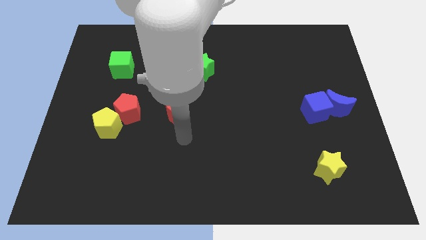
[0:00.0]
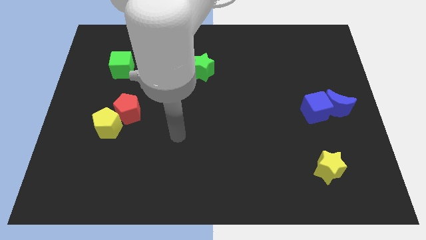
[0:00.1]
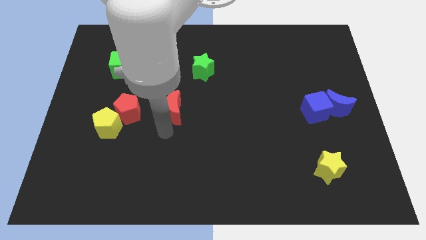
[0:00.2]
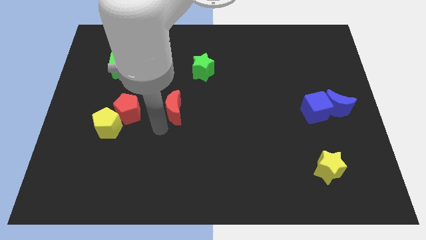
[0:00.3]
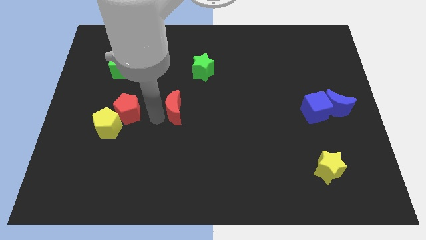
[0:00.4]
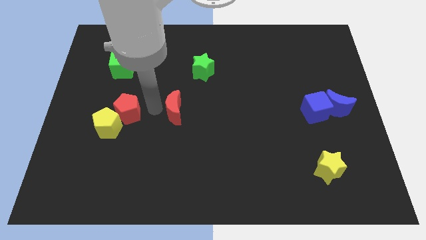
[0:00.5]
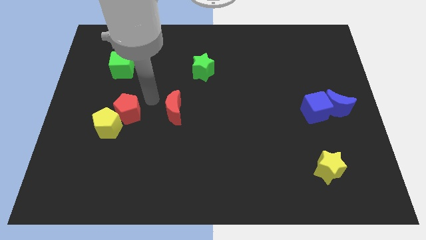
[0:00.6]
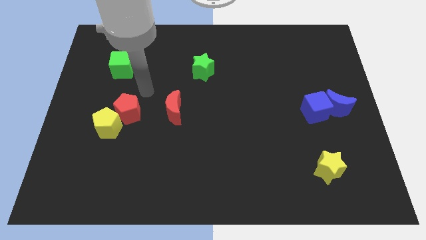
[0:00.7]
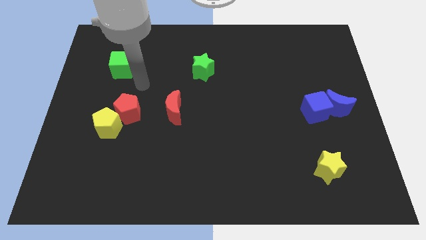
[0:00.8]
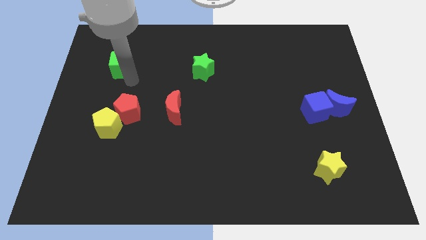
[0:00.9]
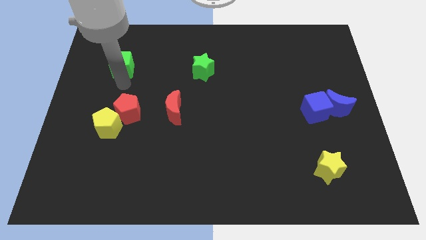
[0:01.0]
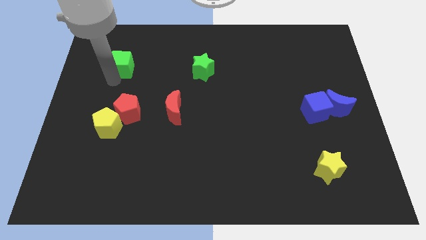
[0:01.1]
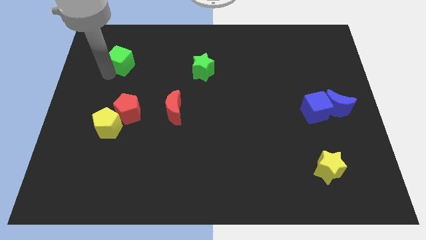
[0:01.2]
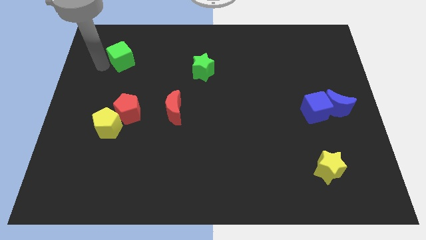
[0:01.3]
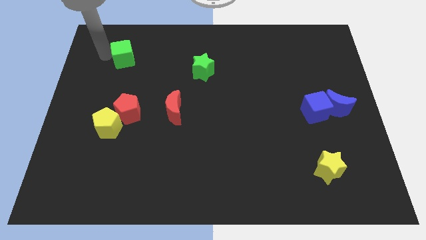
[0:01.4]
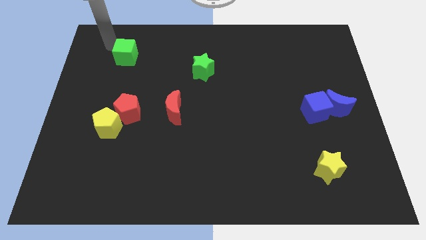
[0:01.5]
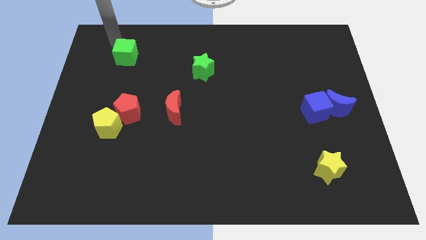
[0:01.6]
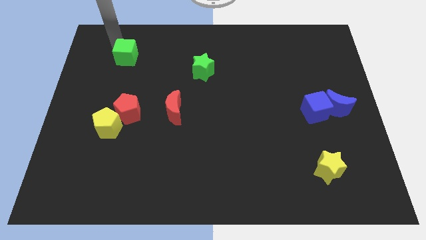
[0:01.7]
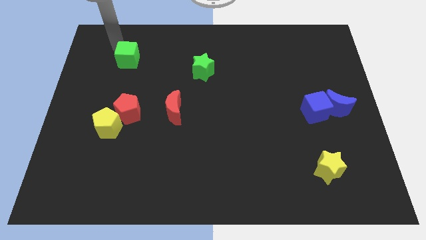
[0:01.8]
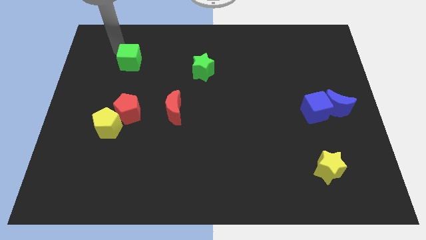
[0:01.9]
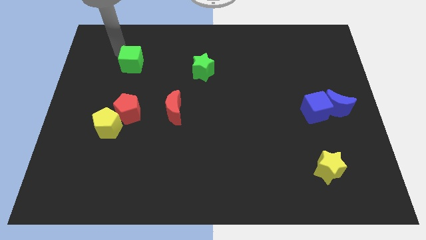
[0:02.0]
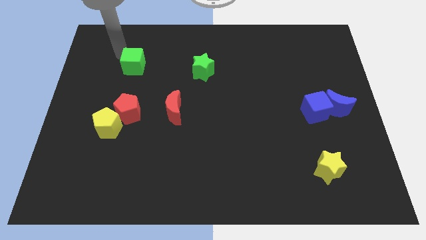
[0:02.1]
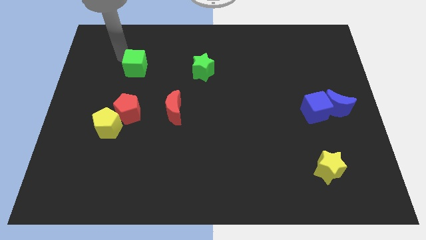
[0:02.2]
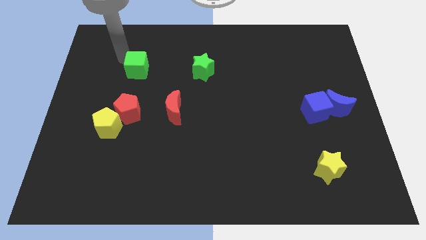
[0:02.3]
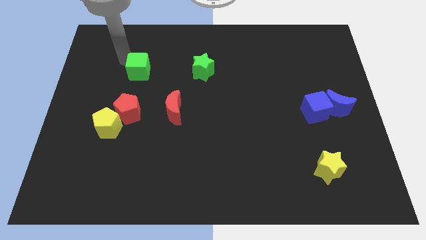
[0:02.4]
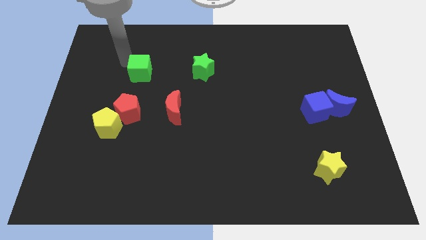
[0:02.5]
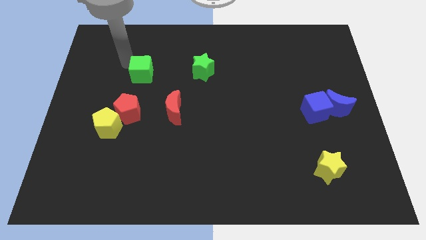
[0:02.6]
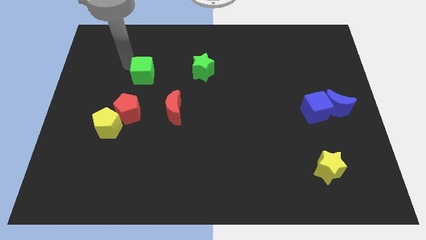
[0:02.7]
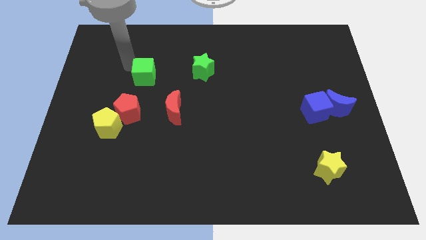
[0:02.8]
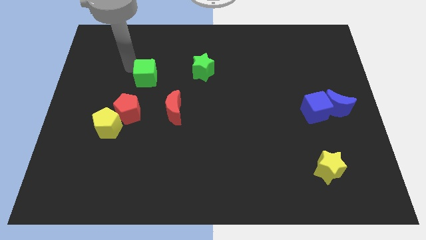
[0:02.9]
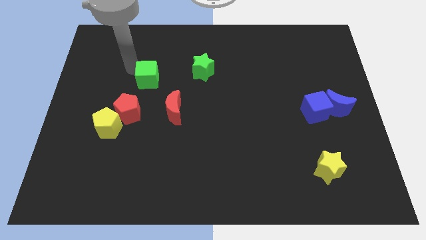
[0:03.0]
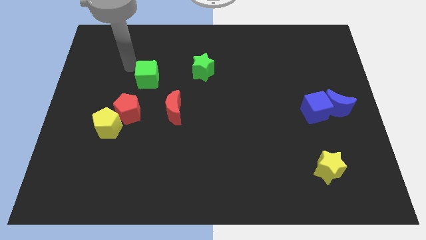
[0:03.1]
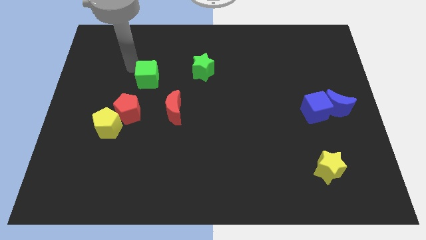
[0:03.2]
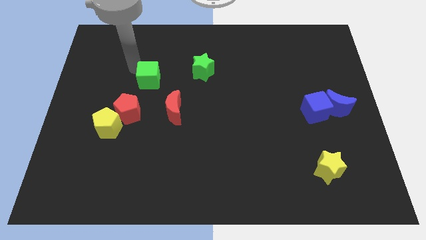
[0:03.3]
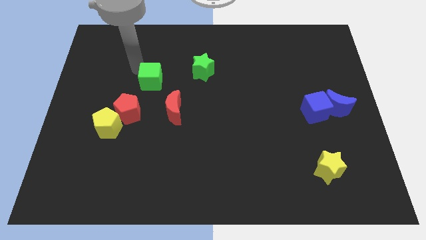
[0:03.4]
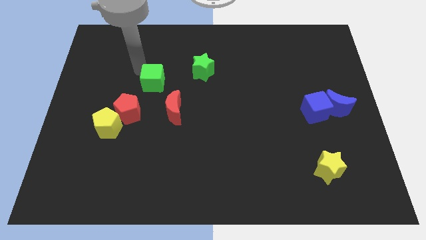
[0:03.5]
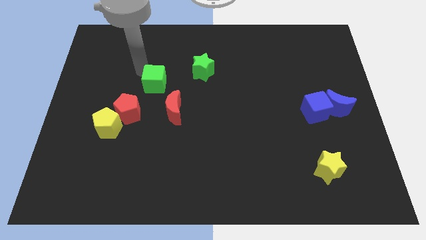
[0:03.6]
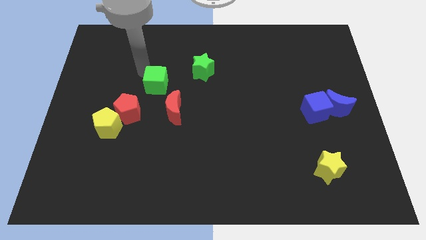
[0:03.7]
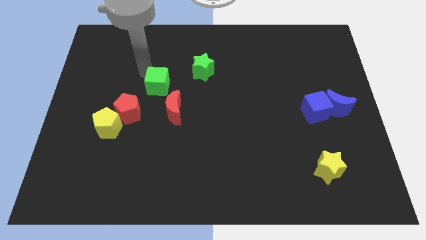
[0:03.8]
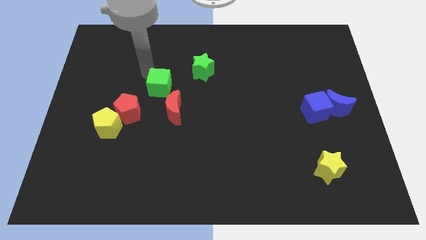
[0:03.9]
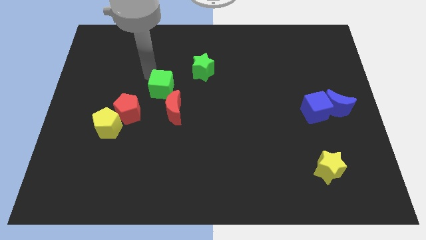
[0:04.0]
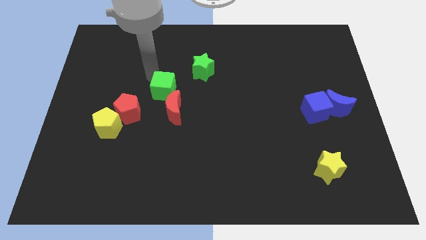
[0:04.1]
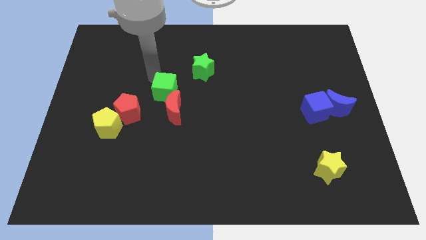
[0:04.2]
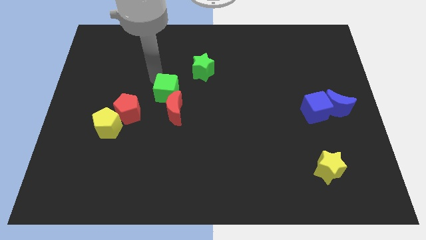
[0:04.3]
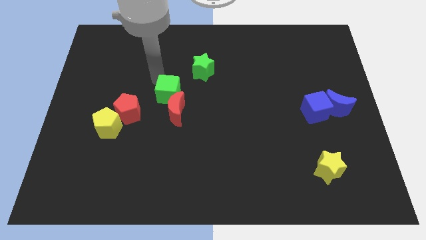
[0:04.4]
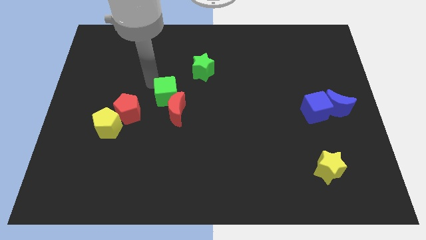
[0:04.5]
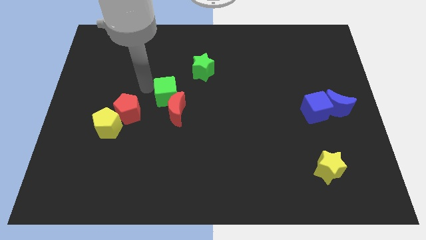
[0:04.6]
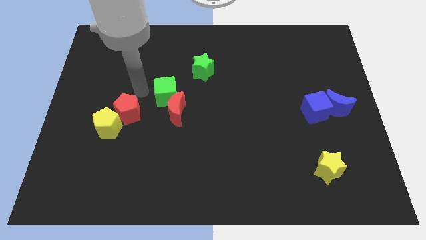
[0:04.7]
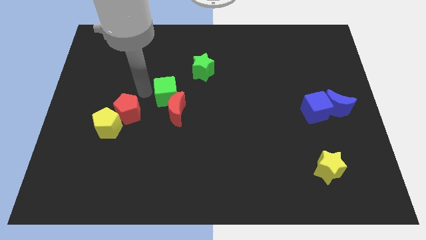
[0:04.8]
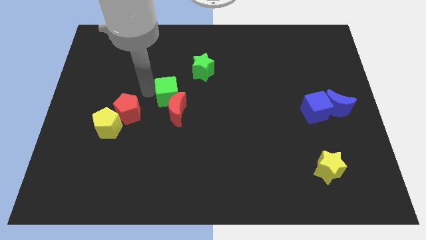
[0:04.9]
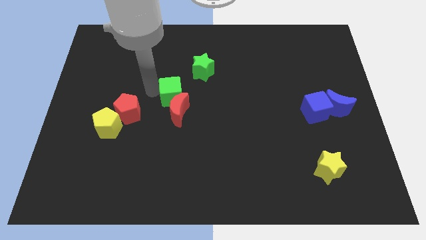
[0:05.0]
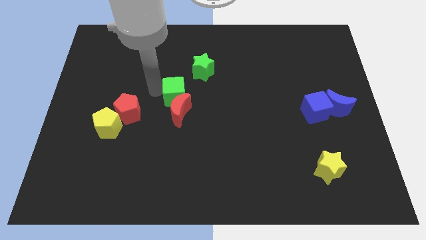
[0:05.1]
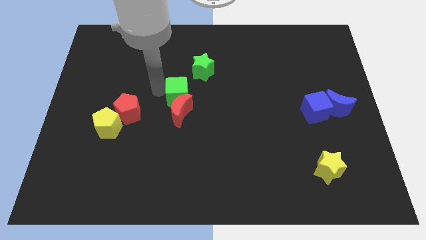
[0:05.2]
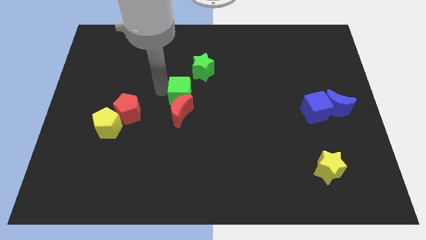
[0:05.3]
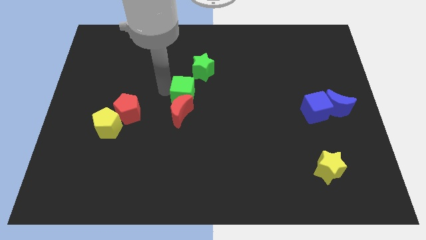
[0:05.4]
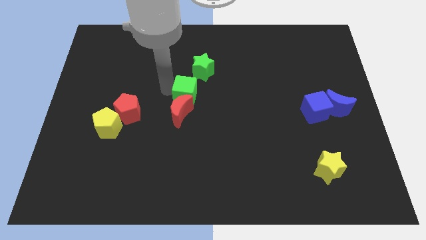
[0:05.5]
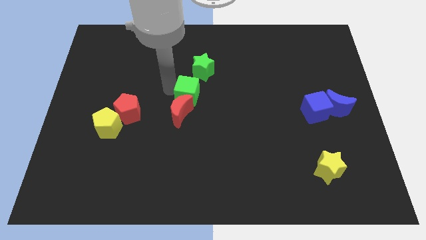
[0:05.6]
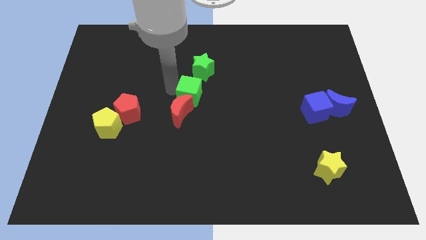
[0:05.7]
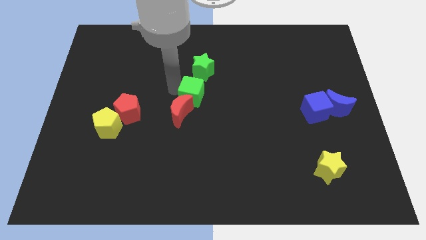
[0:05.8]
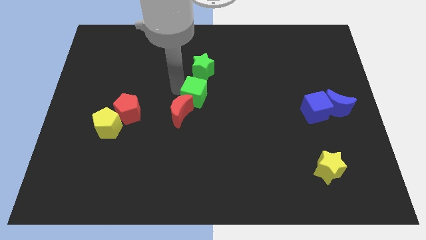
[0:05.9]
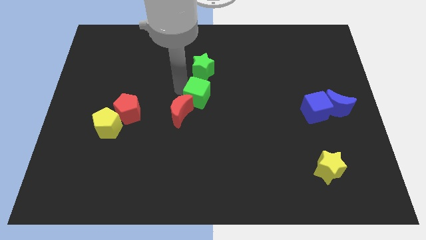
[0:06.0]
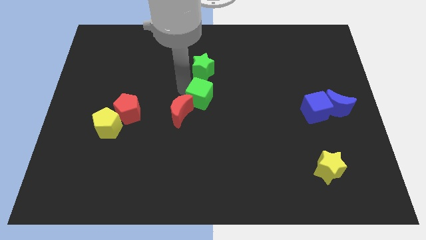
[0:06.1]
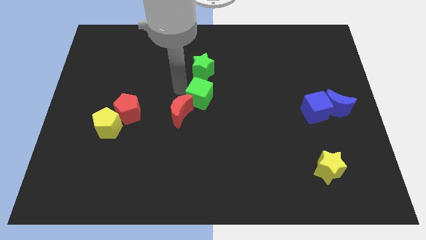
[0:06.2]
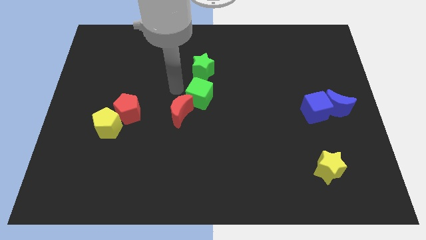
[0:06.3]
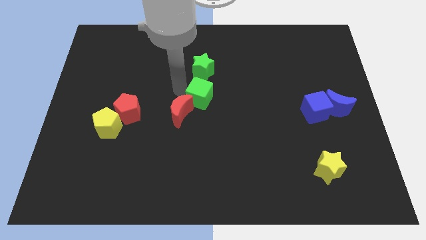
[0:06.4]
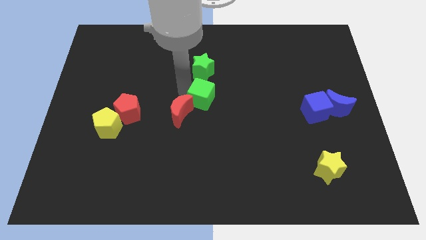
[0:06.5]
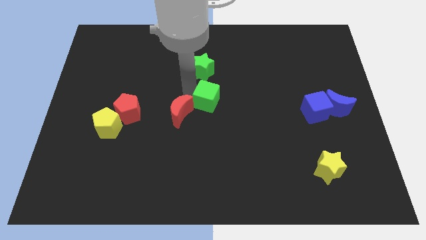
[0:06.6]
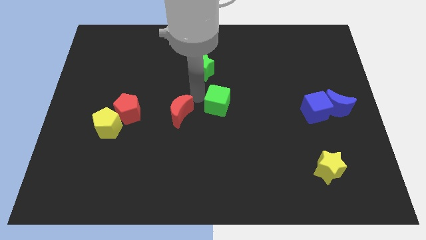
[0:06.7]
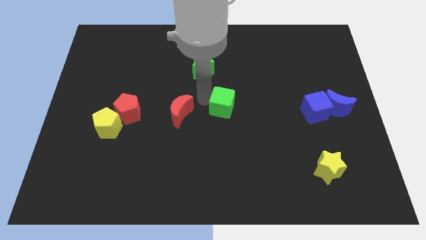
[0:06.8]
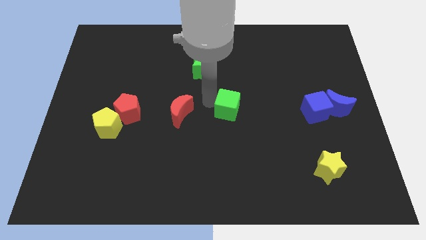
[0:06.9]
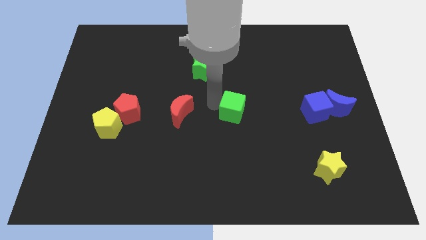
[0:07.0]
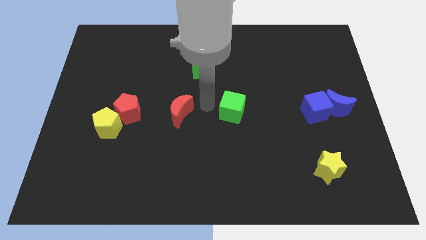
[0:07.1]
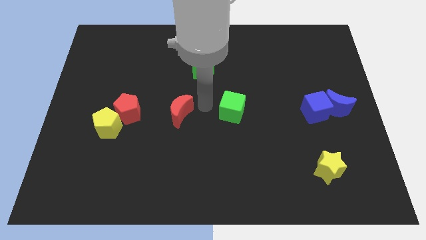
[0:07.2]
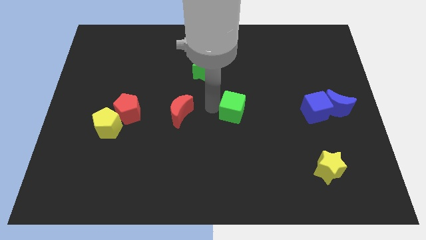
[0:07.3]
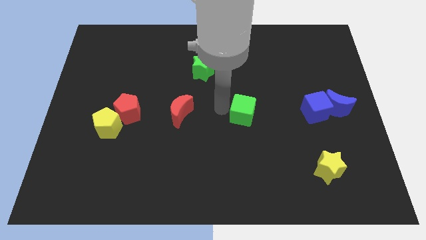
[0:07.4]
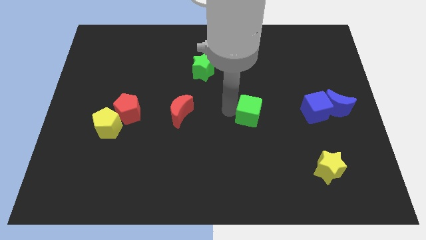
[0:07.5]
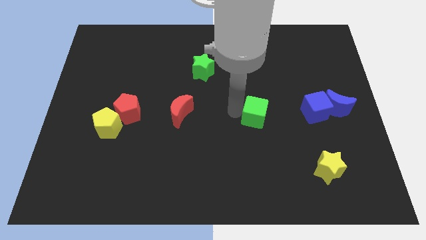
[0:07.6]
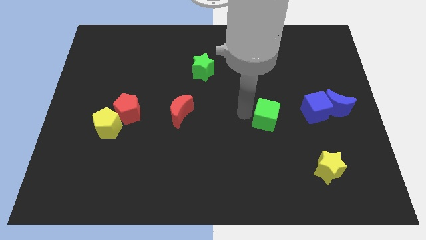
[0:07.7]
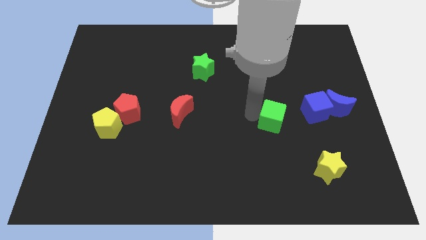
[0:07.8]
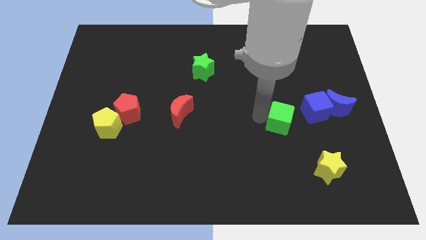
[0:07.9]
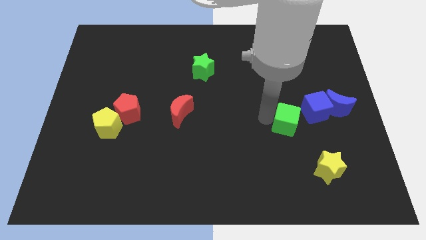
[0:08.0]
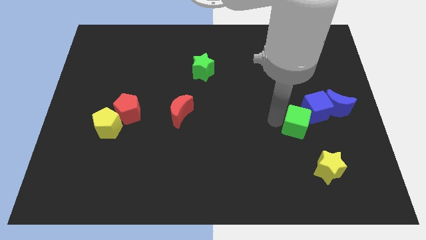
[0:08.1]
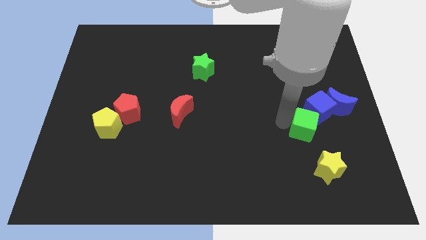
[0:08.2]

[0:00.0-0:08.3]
slide the green cube to the top of the yellow star
